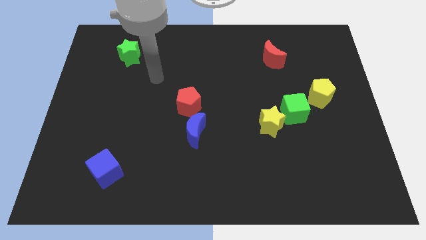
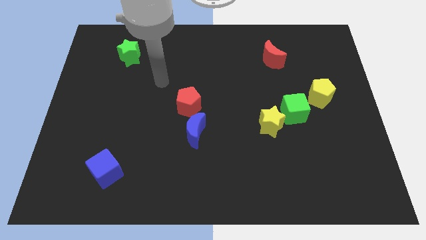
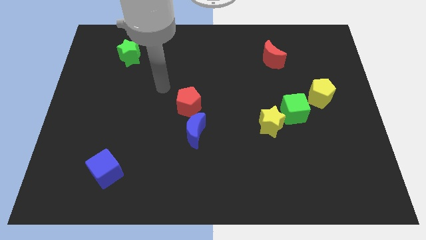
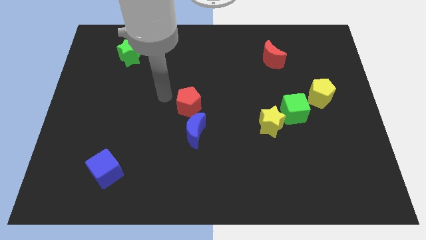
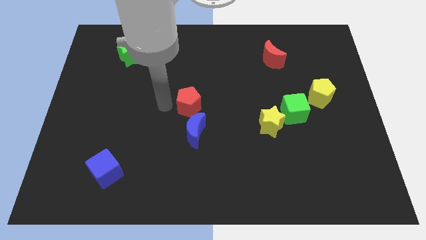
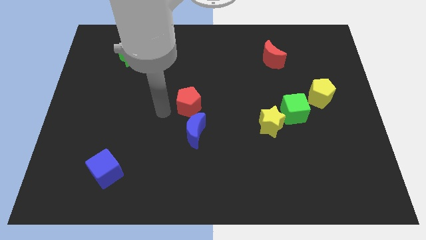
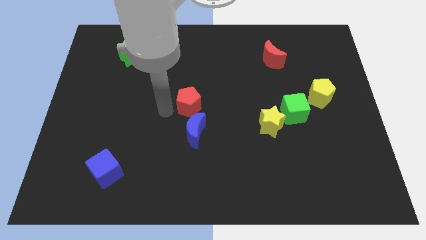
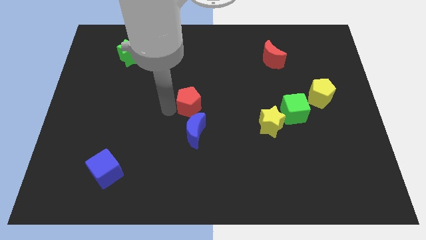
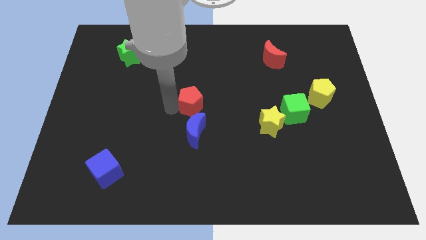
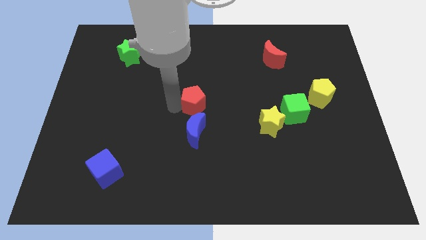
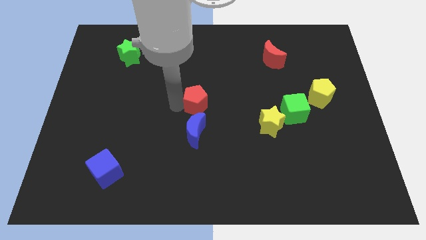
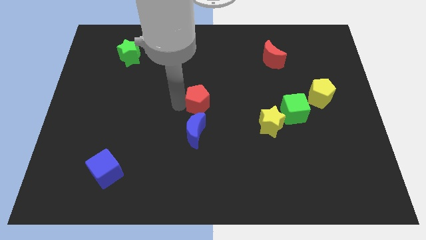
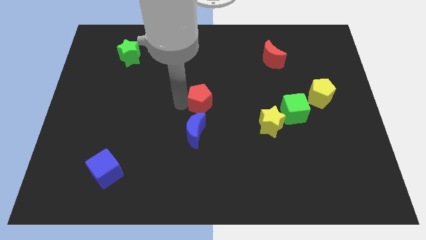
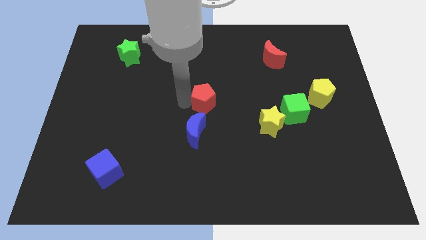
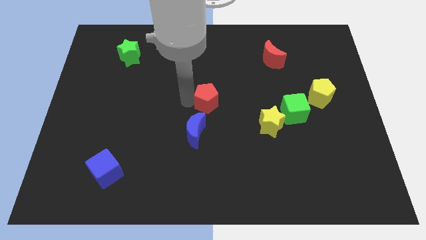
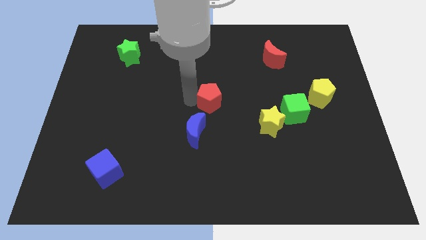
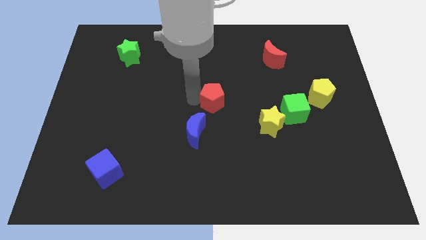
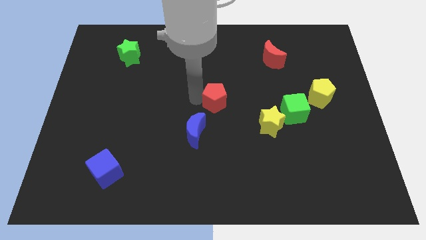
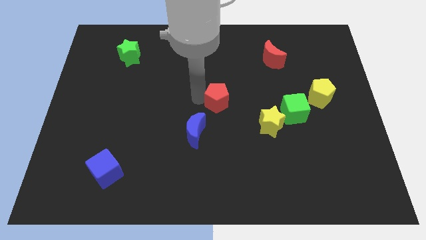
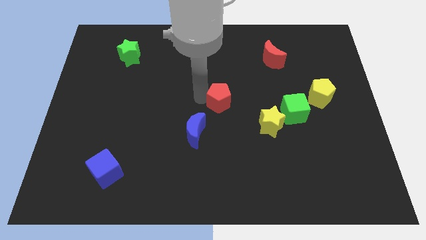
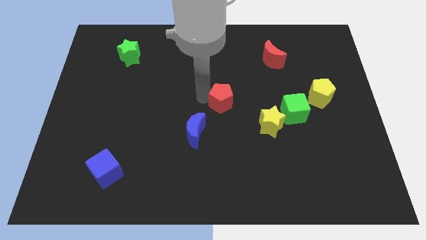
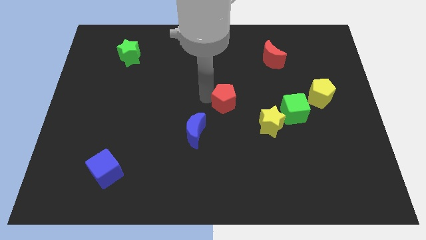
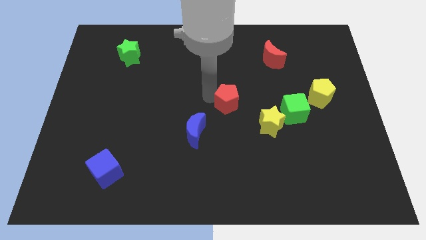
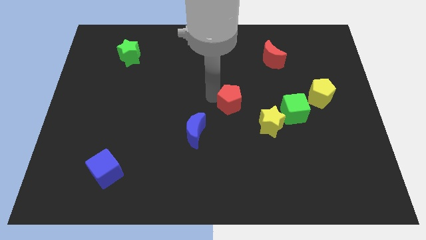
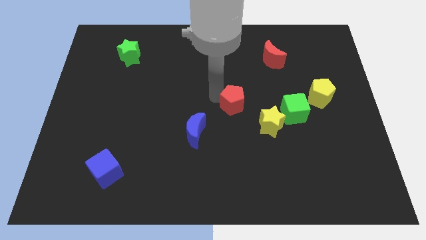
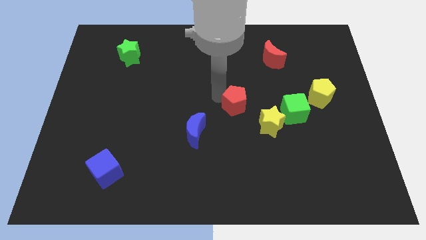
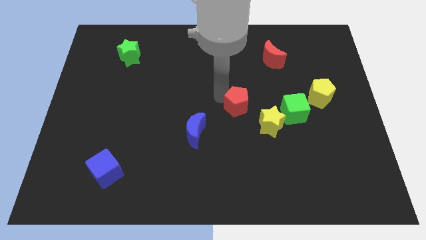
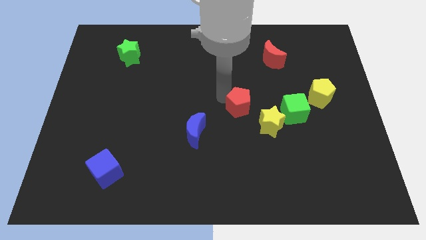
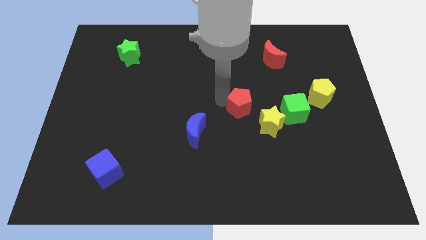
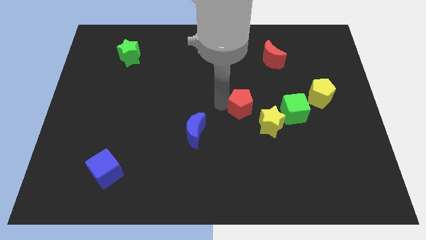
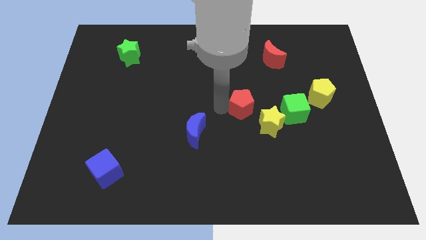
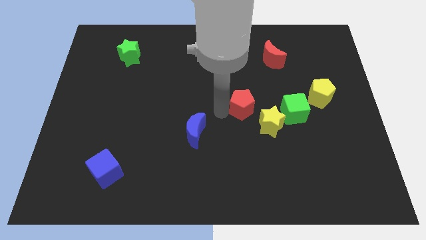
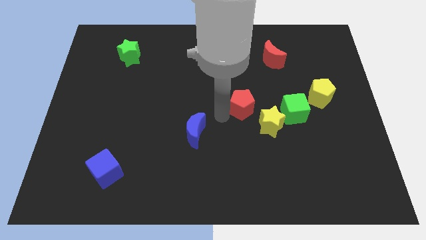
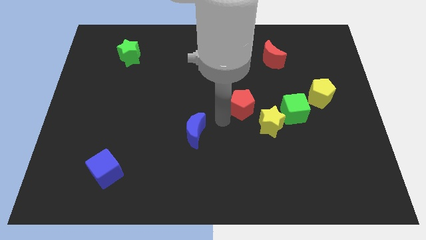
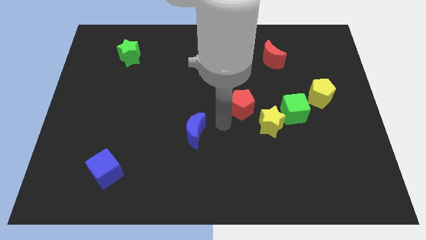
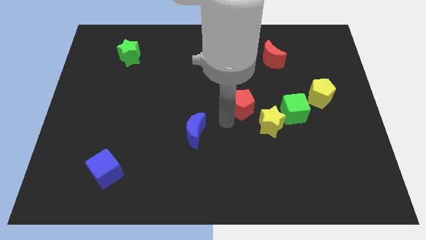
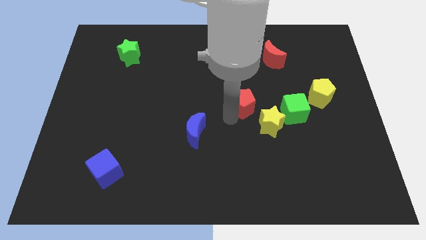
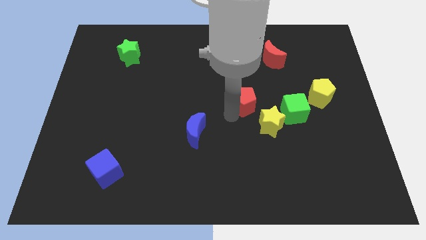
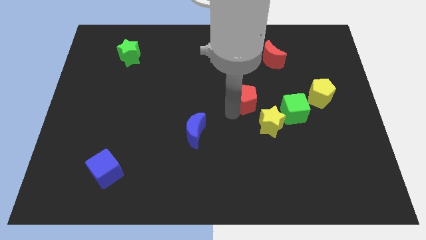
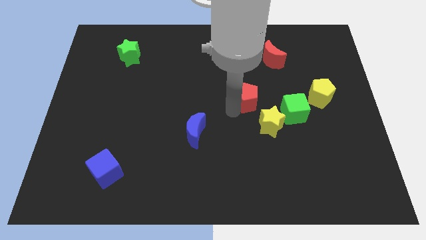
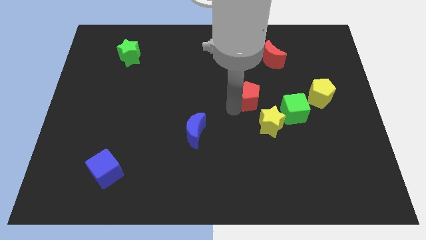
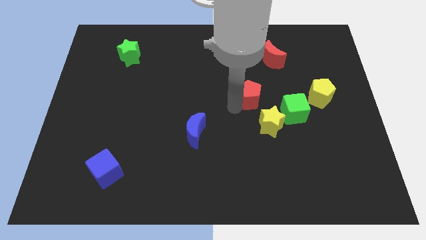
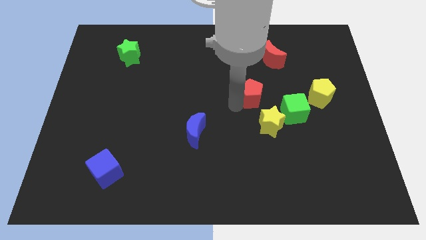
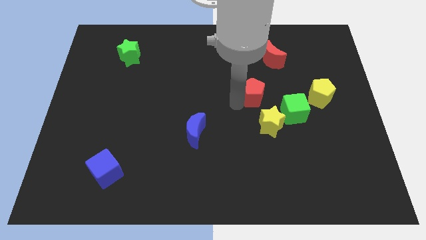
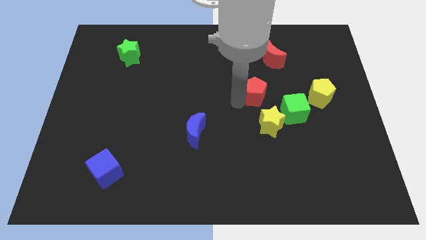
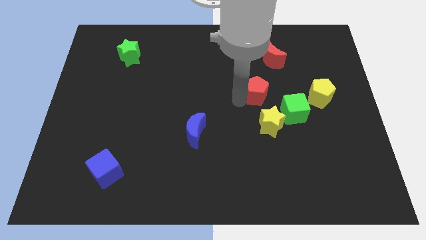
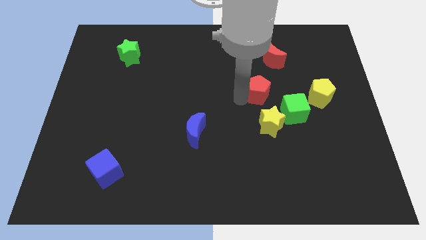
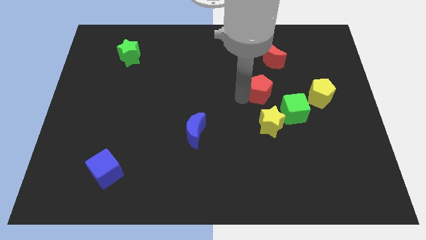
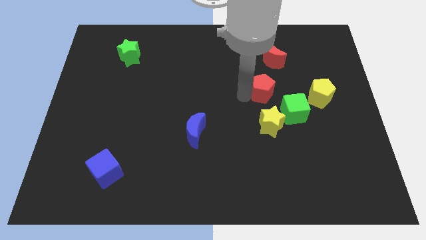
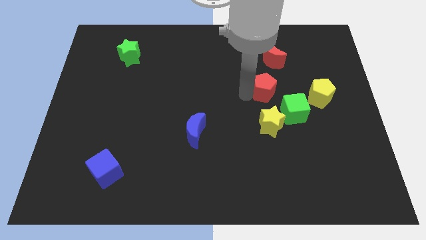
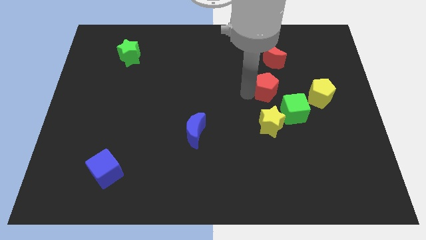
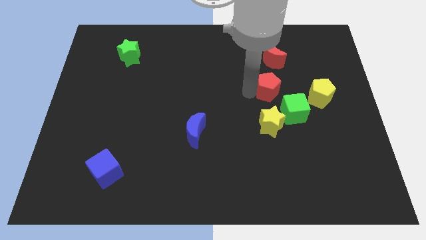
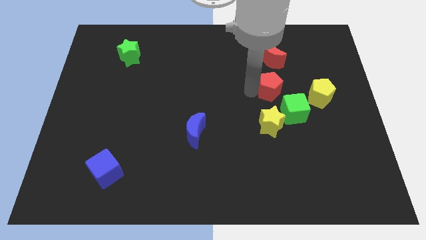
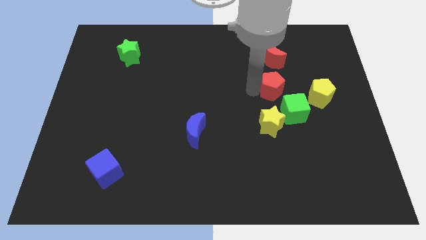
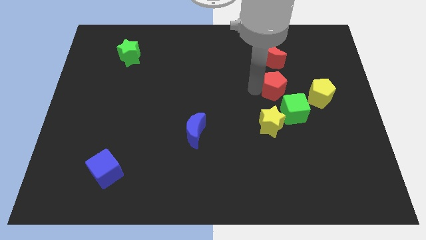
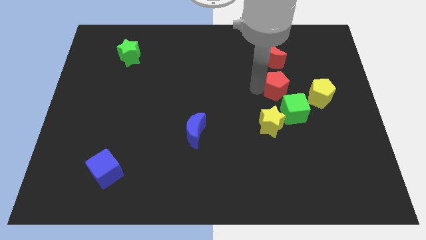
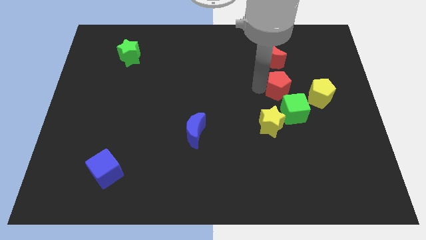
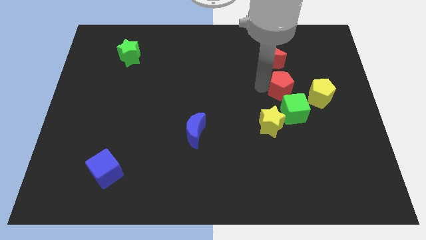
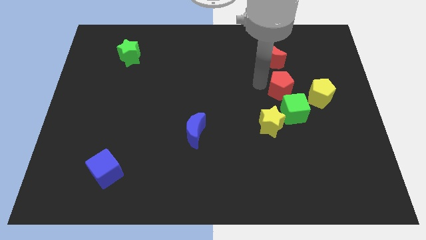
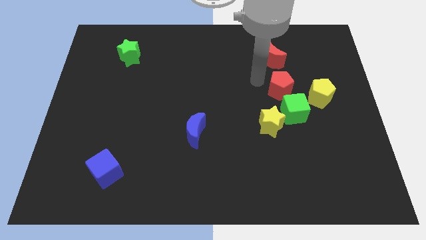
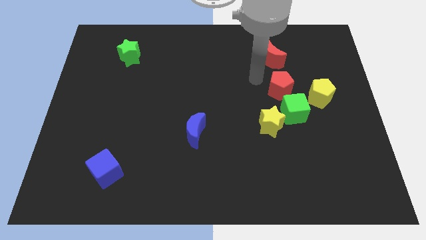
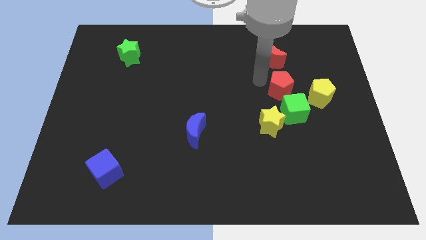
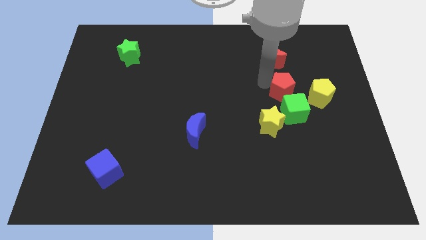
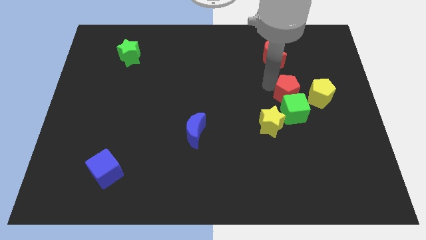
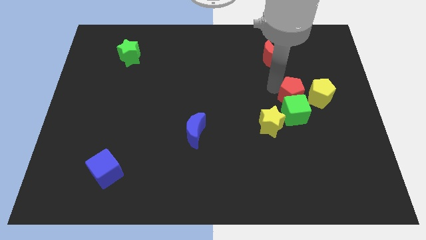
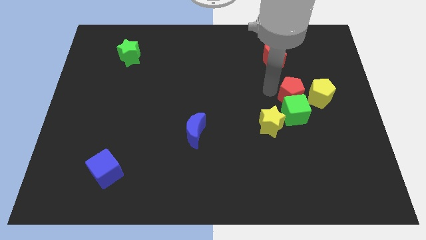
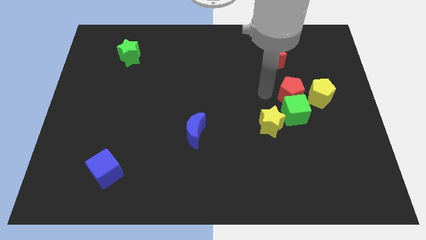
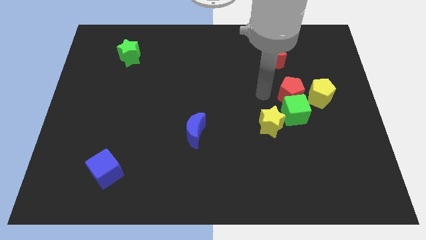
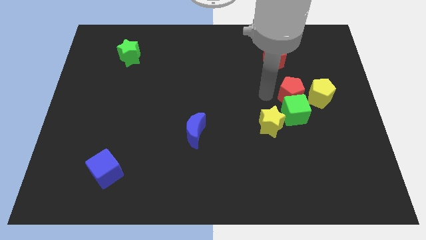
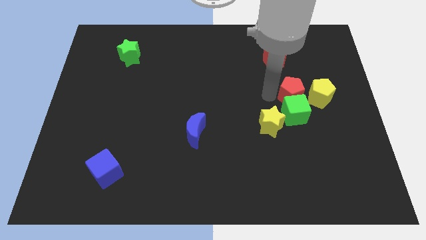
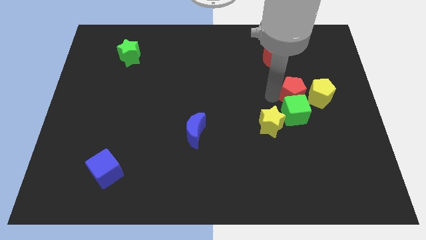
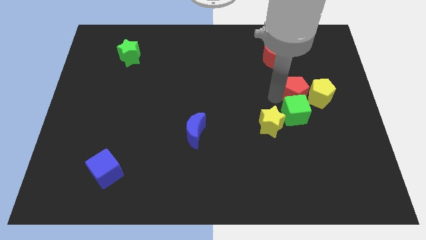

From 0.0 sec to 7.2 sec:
slide the red pentagon close to the yellow pentagon

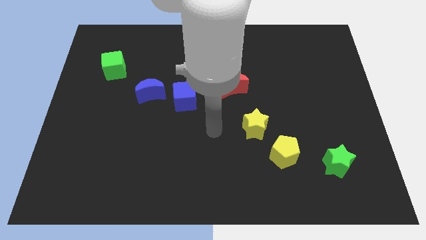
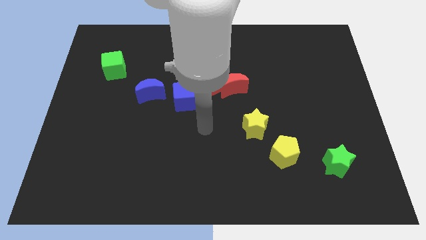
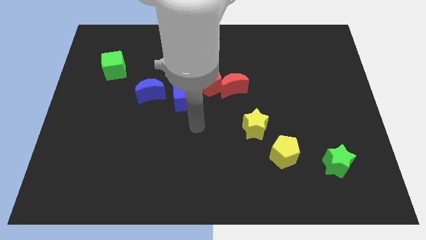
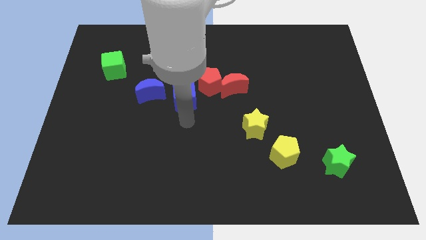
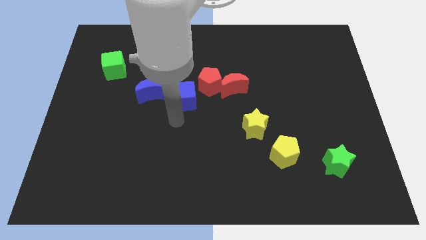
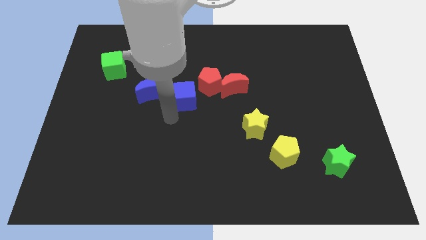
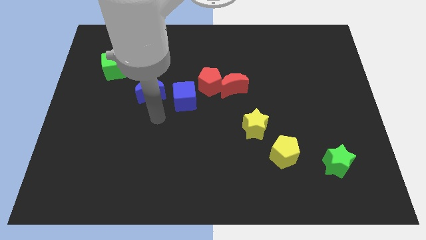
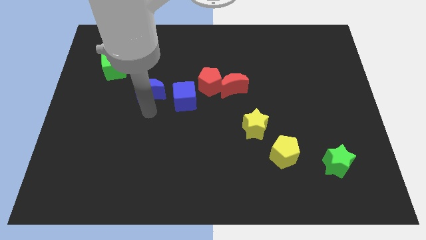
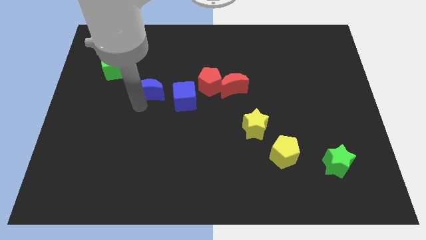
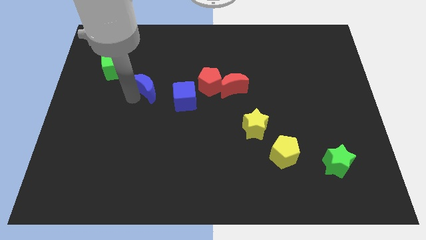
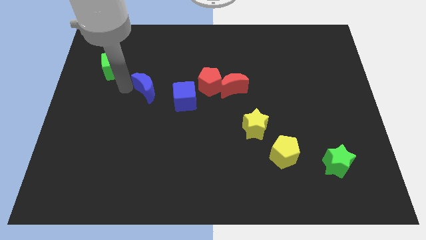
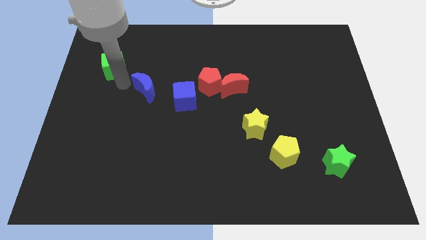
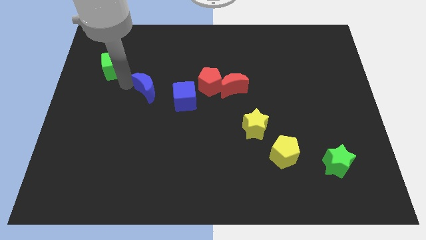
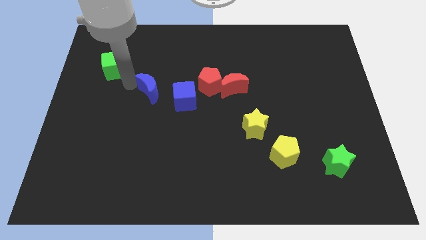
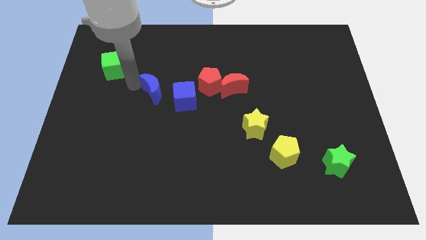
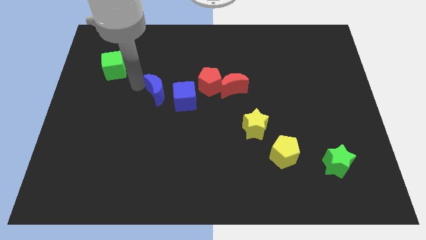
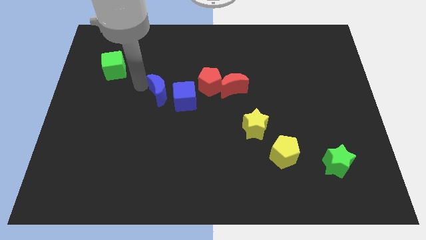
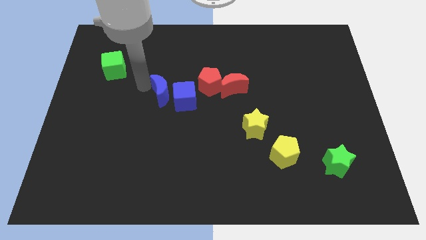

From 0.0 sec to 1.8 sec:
slide the blue moon close to the blue cube
